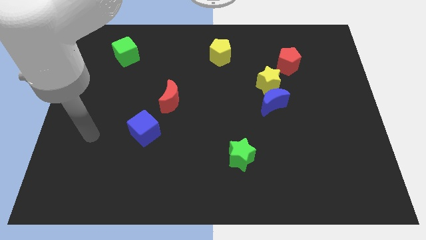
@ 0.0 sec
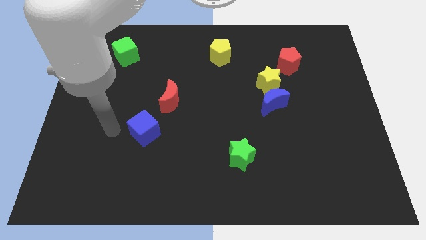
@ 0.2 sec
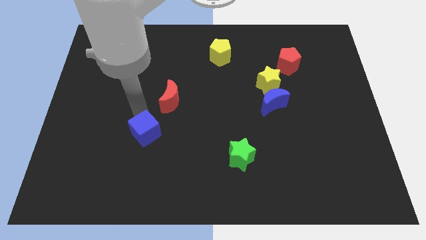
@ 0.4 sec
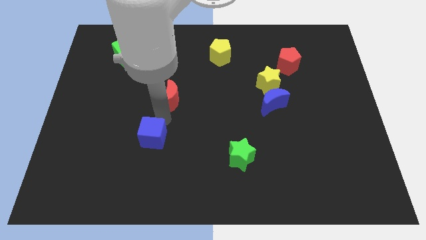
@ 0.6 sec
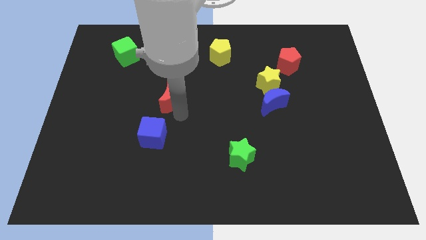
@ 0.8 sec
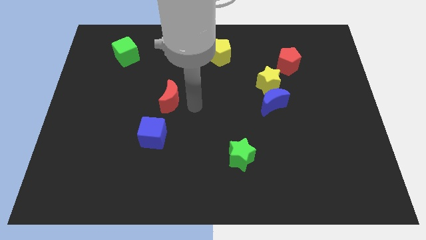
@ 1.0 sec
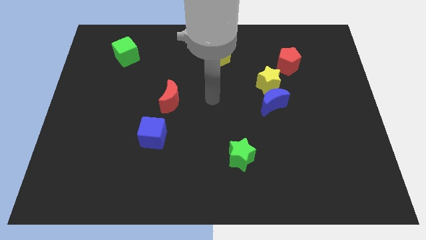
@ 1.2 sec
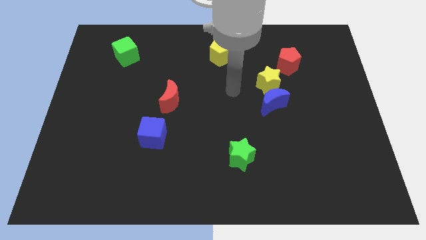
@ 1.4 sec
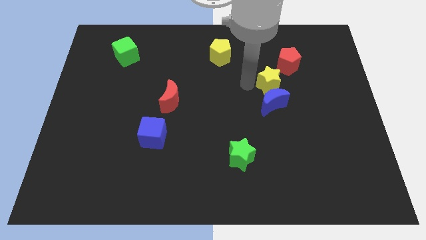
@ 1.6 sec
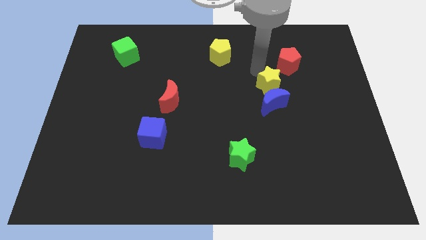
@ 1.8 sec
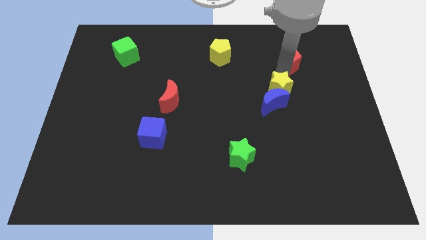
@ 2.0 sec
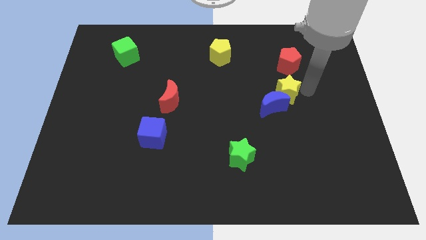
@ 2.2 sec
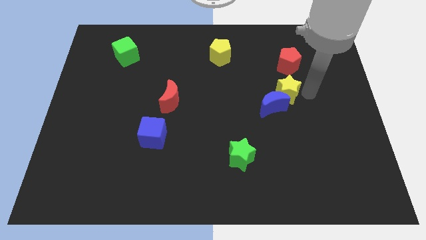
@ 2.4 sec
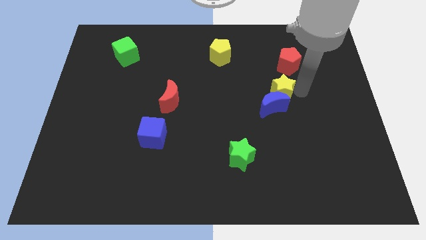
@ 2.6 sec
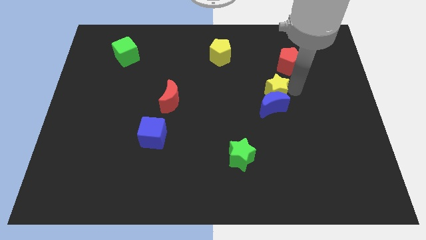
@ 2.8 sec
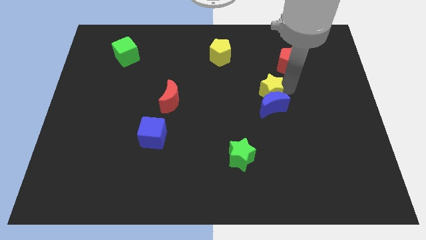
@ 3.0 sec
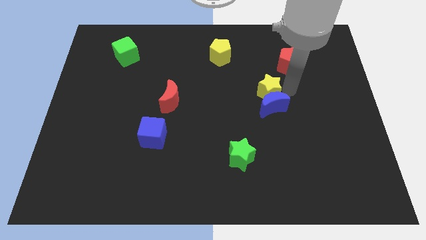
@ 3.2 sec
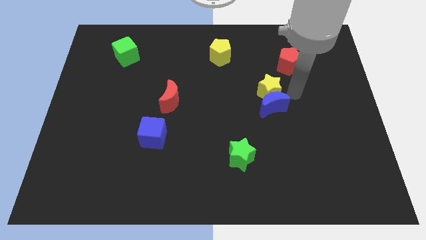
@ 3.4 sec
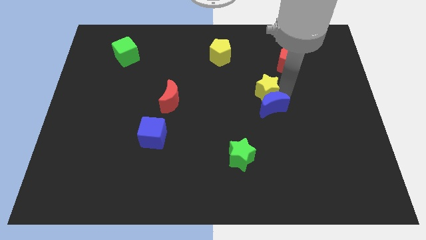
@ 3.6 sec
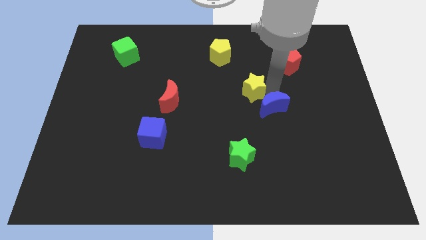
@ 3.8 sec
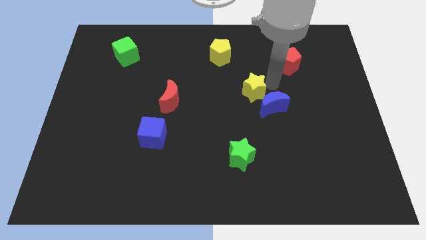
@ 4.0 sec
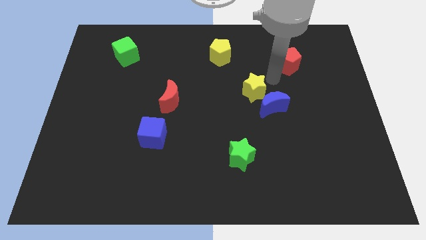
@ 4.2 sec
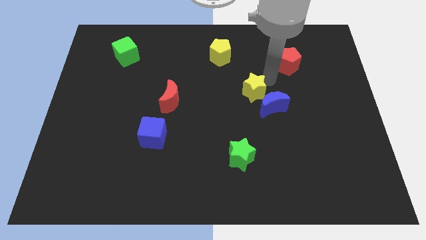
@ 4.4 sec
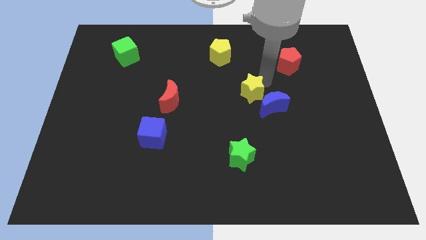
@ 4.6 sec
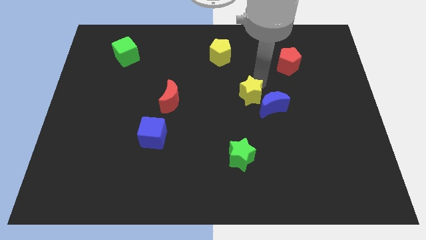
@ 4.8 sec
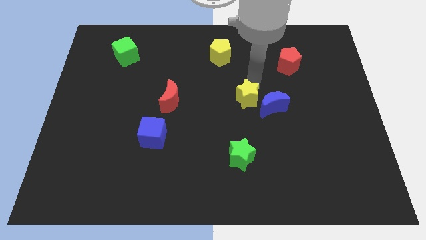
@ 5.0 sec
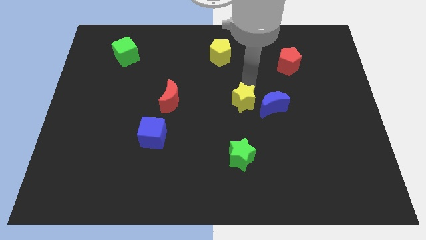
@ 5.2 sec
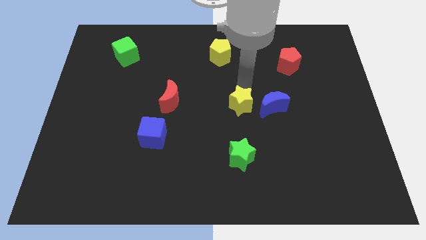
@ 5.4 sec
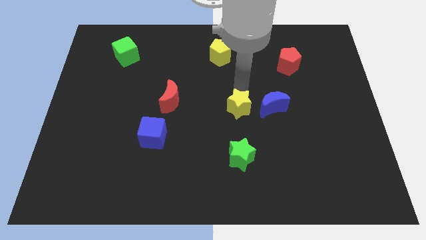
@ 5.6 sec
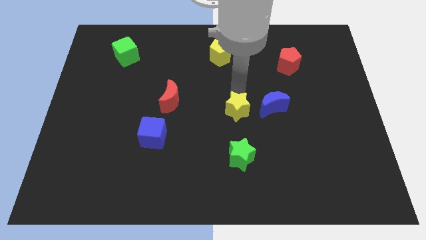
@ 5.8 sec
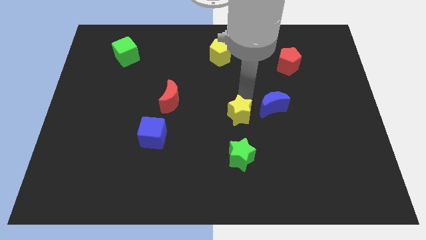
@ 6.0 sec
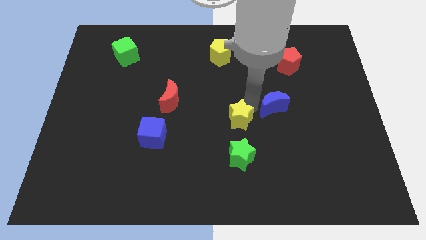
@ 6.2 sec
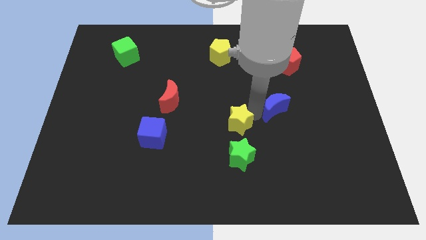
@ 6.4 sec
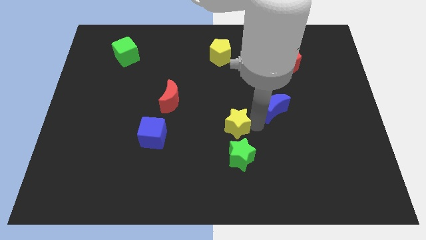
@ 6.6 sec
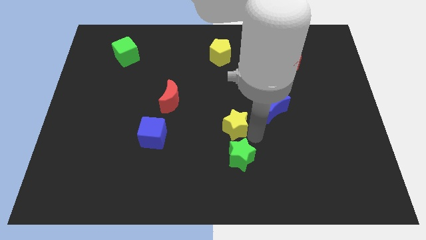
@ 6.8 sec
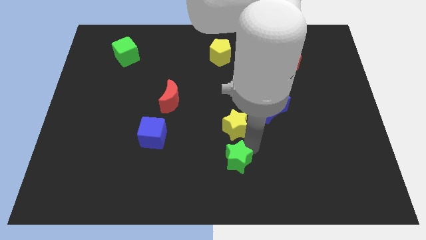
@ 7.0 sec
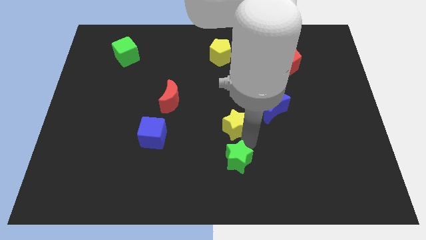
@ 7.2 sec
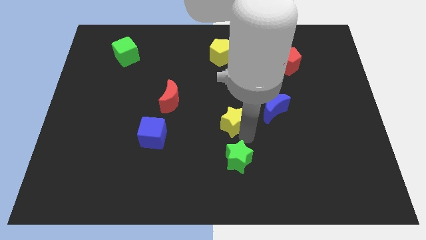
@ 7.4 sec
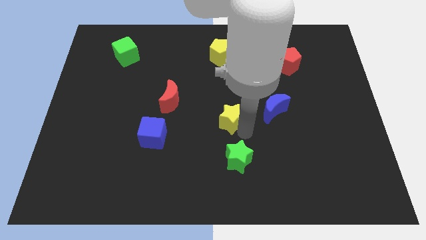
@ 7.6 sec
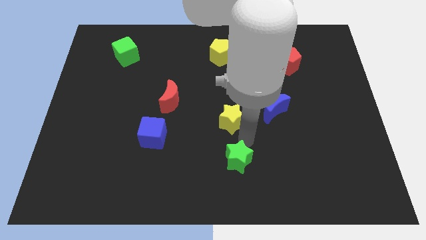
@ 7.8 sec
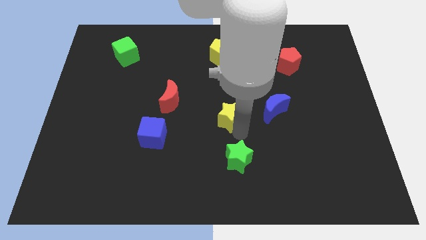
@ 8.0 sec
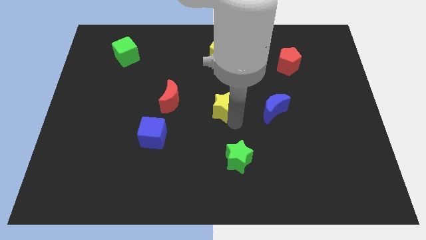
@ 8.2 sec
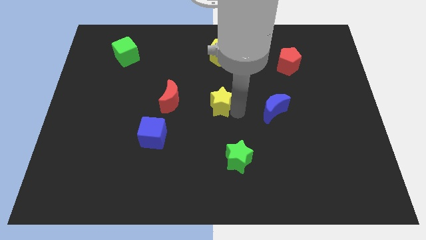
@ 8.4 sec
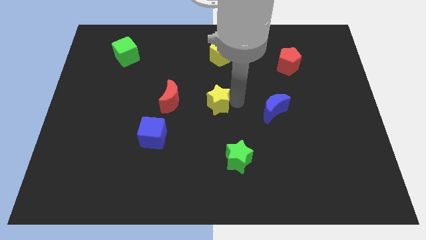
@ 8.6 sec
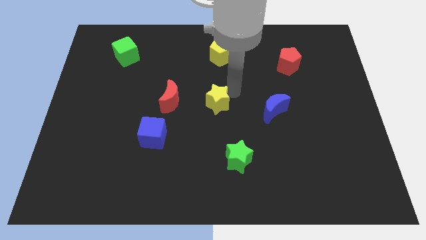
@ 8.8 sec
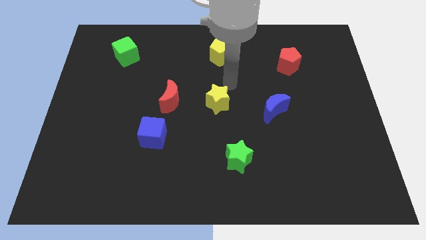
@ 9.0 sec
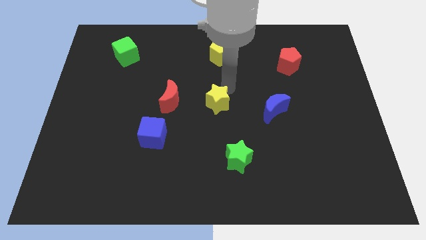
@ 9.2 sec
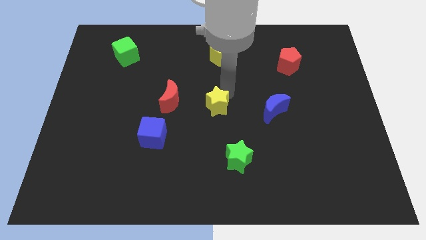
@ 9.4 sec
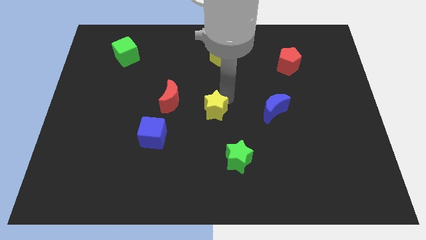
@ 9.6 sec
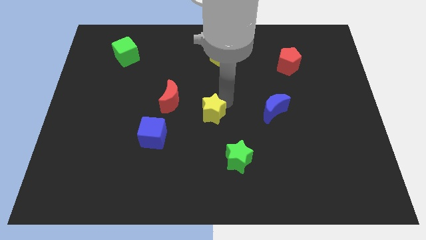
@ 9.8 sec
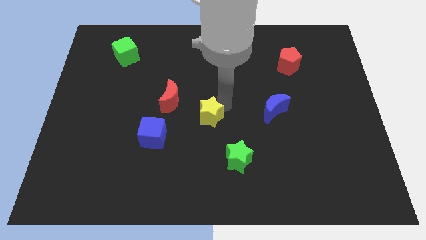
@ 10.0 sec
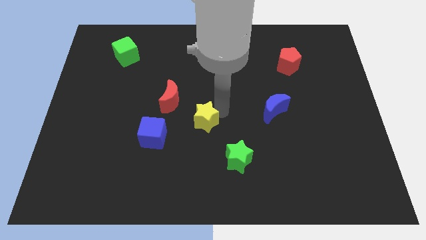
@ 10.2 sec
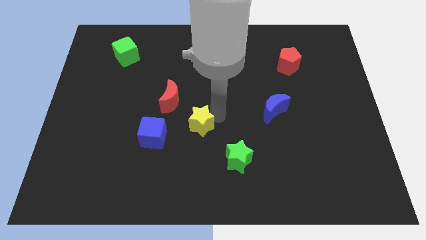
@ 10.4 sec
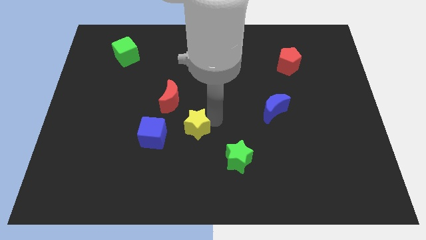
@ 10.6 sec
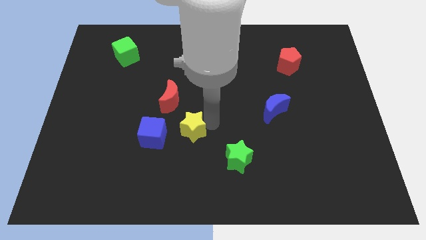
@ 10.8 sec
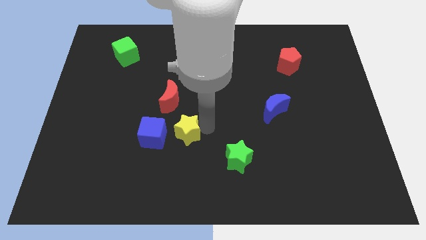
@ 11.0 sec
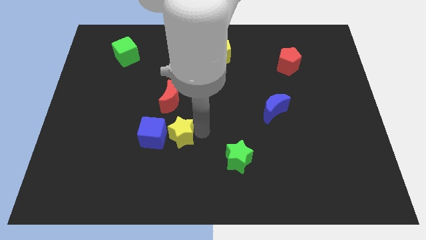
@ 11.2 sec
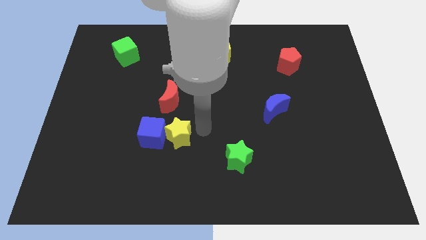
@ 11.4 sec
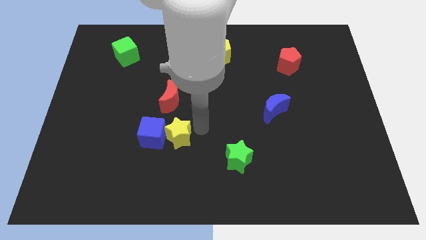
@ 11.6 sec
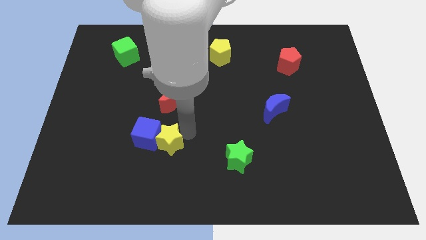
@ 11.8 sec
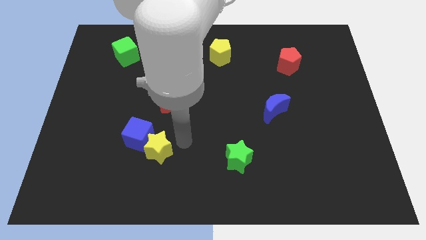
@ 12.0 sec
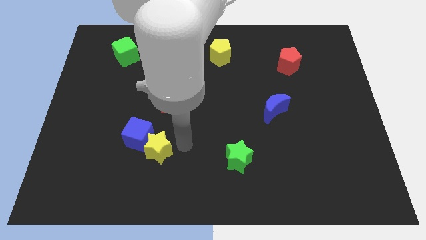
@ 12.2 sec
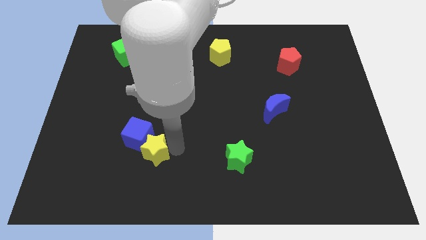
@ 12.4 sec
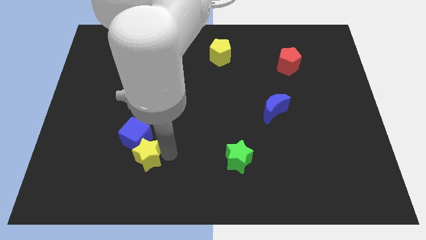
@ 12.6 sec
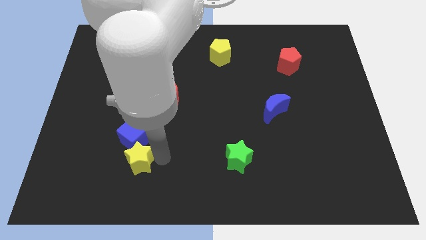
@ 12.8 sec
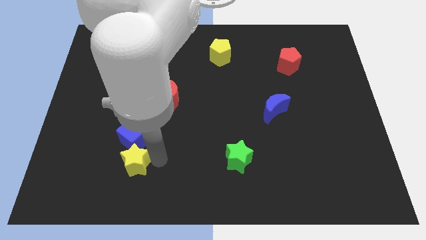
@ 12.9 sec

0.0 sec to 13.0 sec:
push the yellow star to the bottom left side of the blue cube

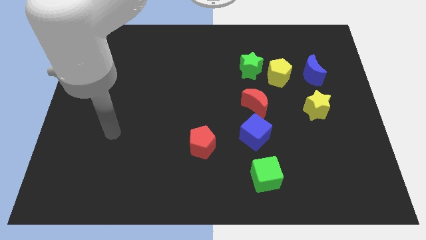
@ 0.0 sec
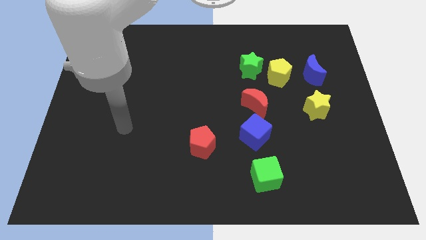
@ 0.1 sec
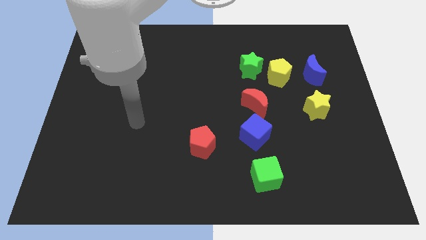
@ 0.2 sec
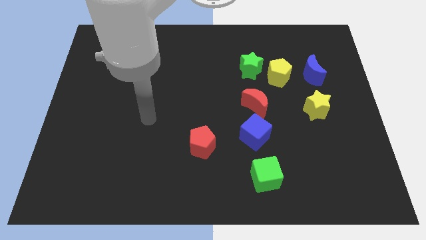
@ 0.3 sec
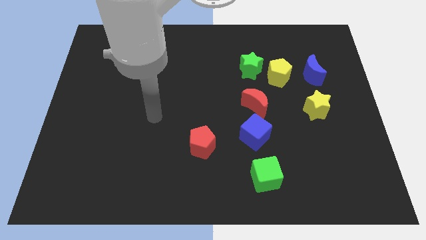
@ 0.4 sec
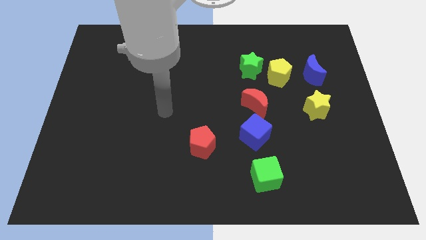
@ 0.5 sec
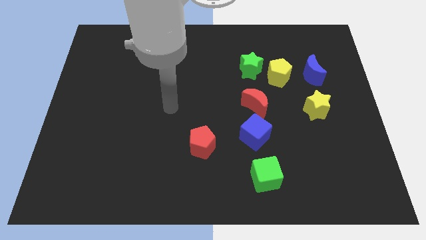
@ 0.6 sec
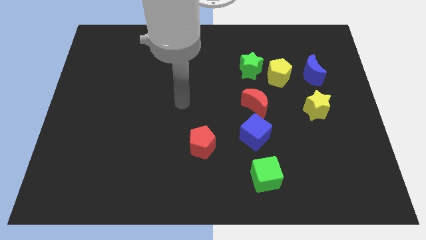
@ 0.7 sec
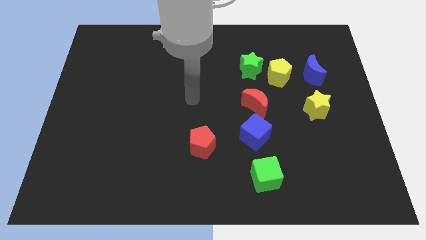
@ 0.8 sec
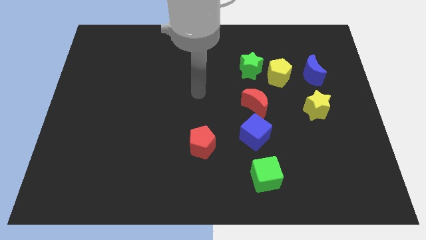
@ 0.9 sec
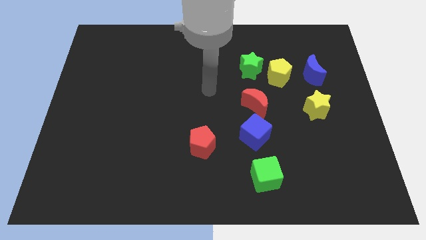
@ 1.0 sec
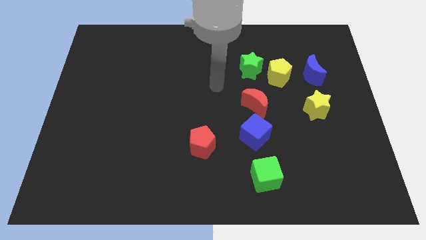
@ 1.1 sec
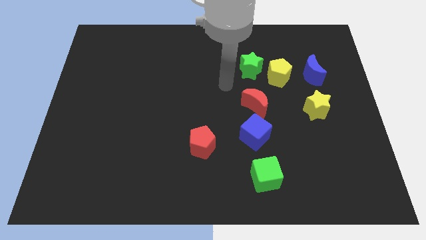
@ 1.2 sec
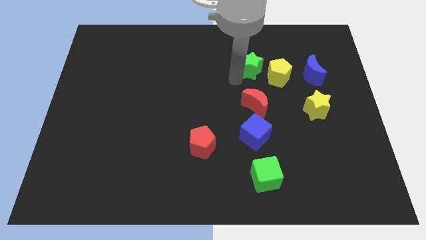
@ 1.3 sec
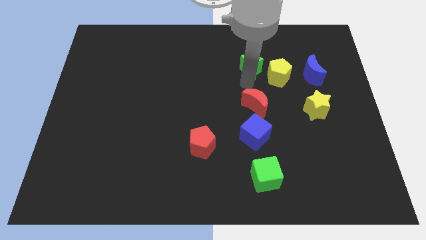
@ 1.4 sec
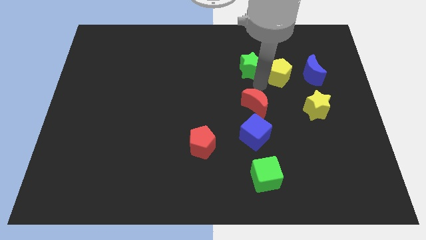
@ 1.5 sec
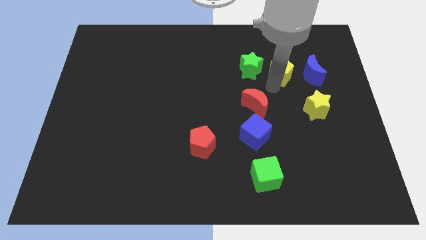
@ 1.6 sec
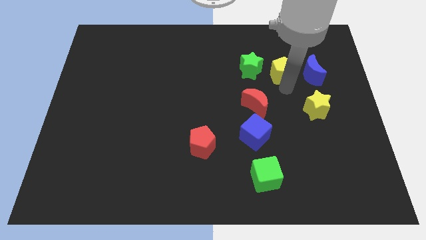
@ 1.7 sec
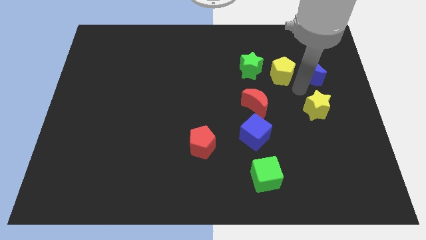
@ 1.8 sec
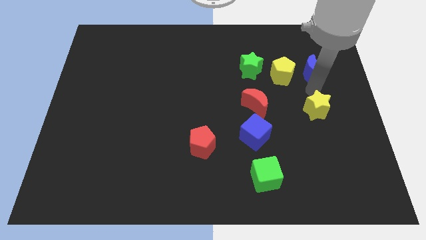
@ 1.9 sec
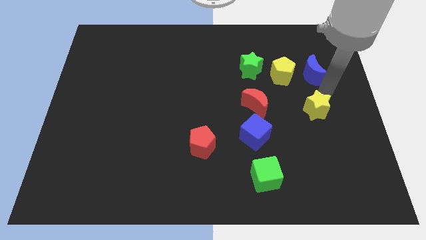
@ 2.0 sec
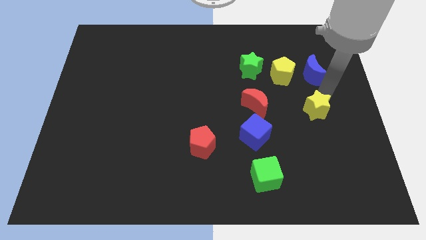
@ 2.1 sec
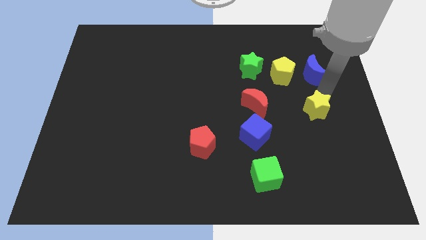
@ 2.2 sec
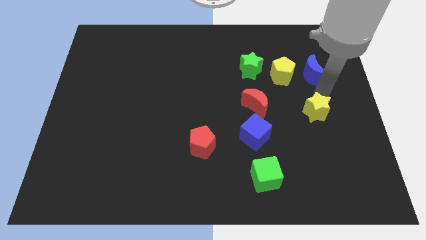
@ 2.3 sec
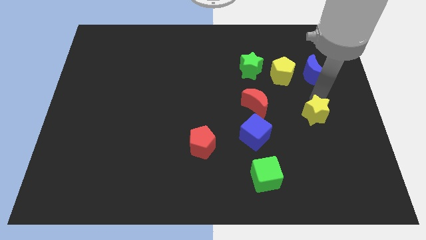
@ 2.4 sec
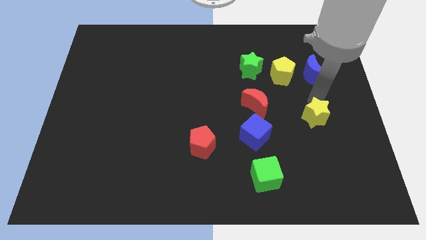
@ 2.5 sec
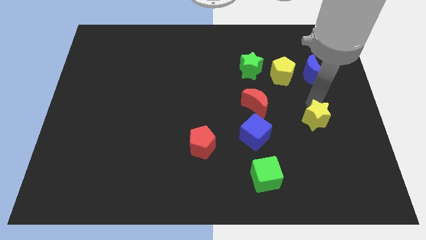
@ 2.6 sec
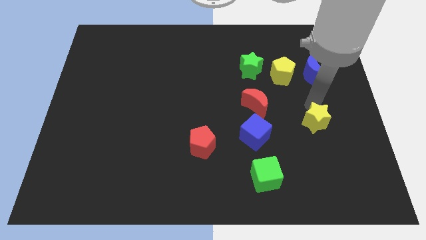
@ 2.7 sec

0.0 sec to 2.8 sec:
move the yellow star right of the blue cube
